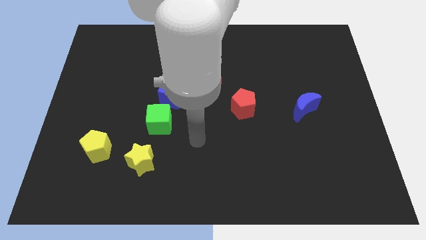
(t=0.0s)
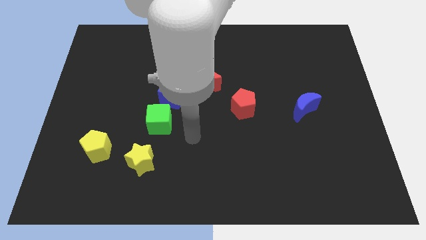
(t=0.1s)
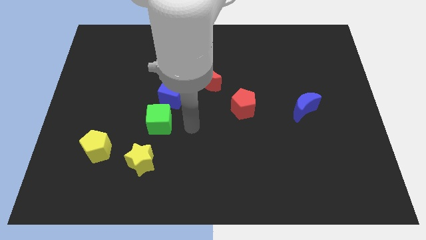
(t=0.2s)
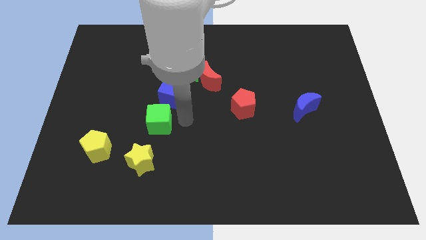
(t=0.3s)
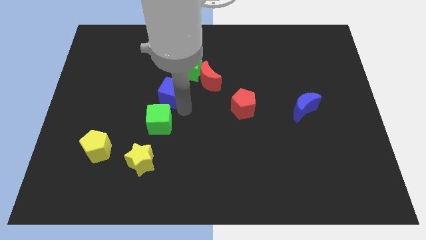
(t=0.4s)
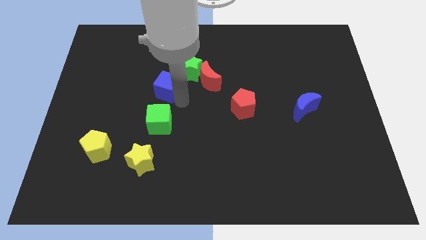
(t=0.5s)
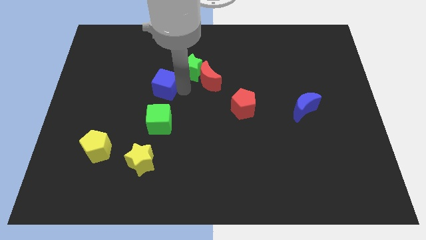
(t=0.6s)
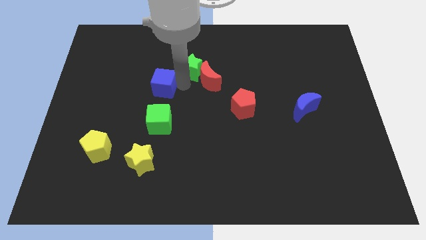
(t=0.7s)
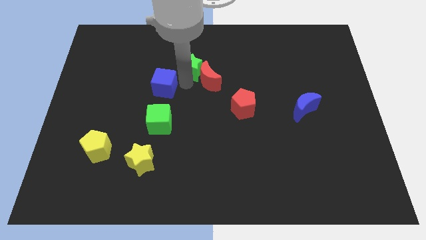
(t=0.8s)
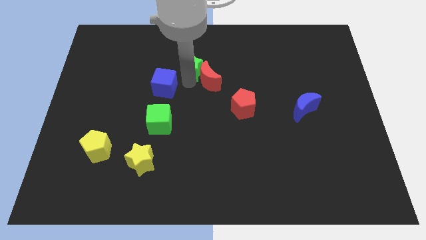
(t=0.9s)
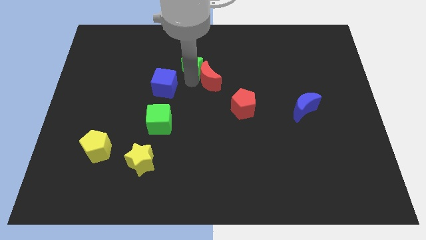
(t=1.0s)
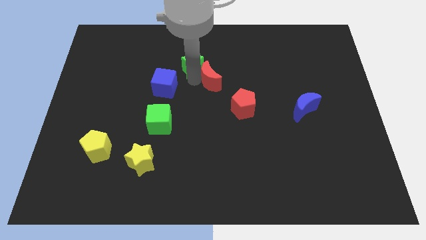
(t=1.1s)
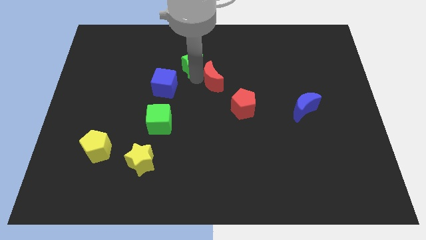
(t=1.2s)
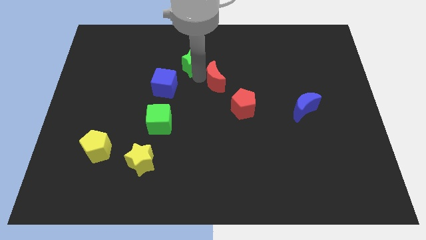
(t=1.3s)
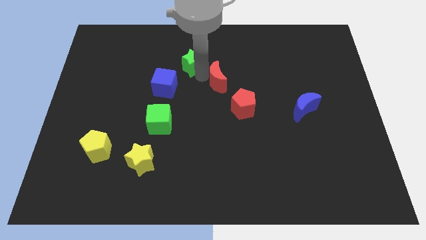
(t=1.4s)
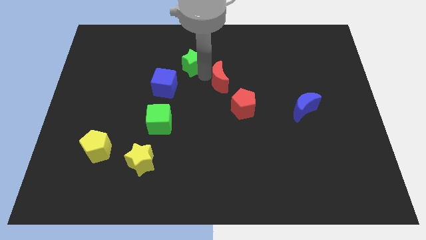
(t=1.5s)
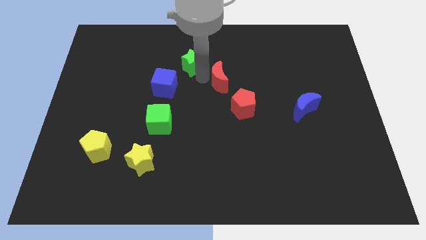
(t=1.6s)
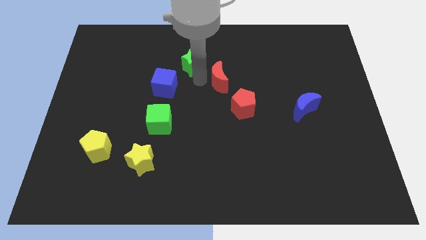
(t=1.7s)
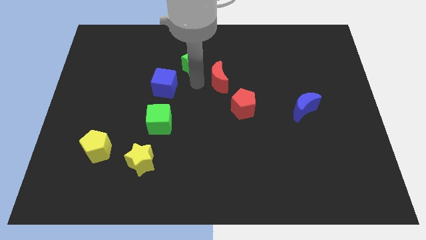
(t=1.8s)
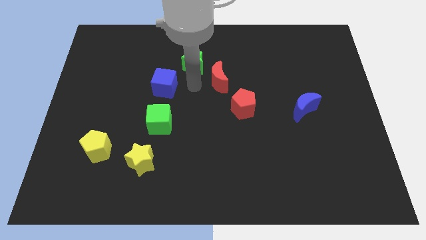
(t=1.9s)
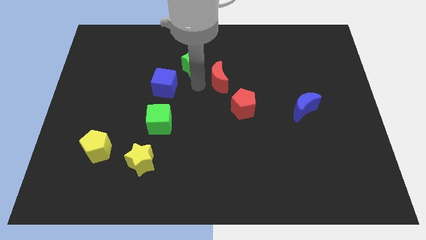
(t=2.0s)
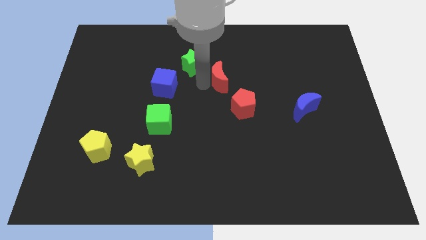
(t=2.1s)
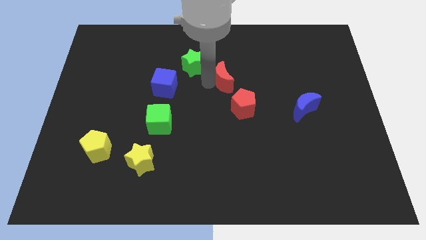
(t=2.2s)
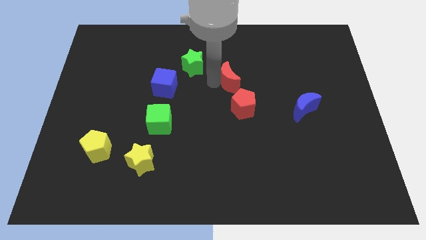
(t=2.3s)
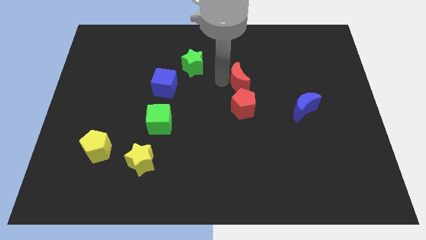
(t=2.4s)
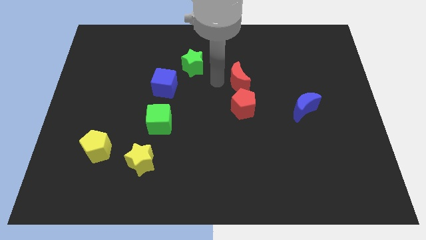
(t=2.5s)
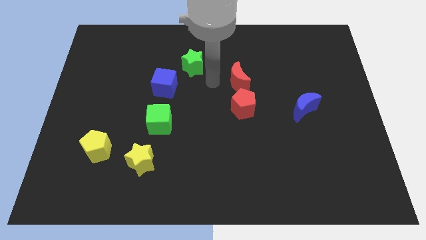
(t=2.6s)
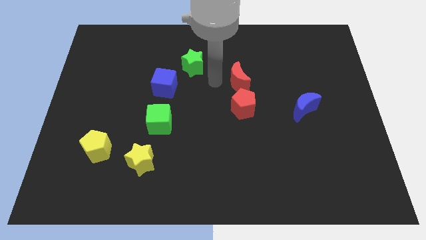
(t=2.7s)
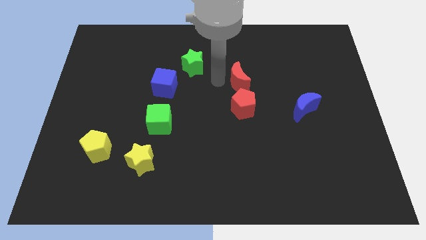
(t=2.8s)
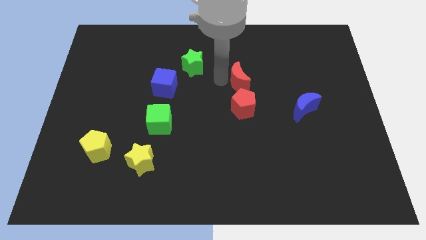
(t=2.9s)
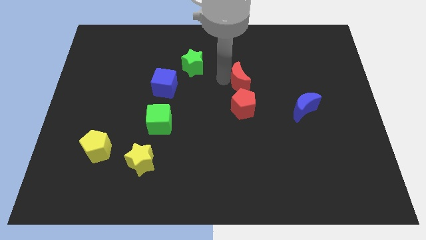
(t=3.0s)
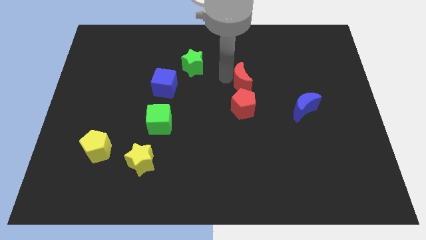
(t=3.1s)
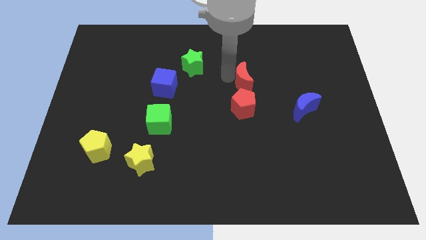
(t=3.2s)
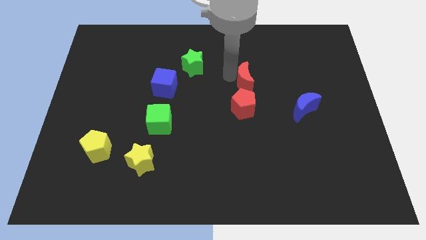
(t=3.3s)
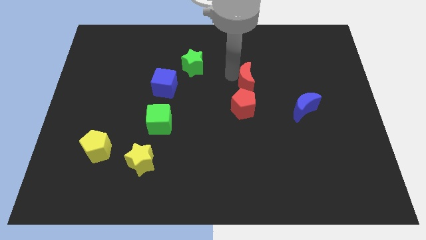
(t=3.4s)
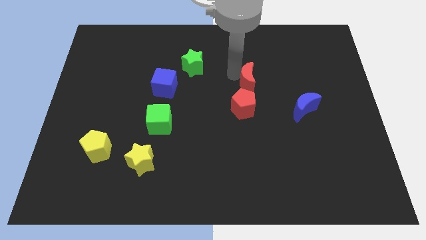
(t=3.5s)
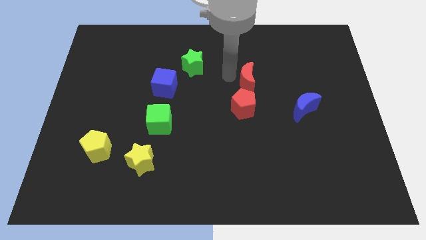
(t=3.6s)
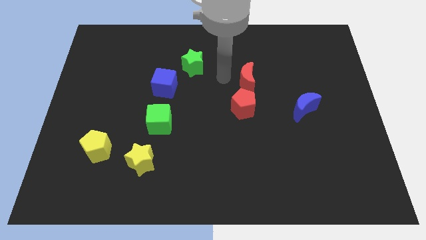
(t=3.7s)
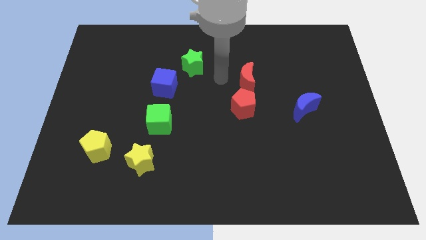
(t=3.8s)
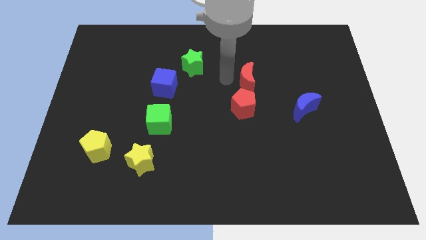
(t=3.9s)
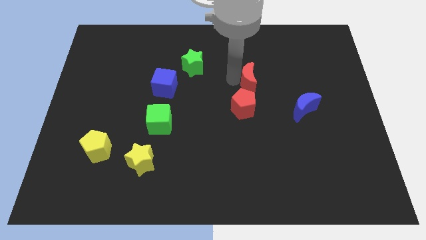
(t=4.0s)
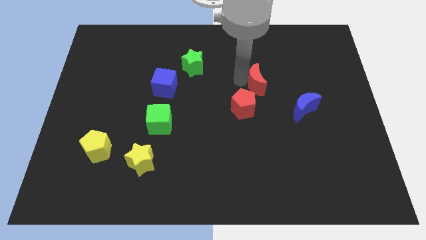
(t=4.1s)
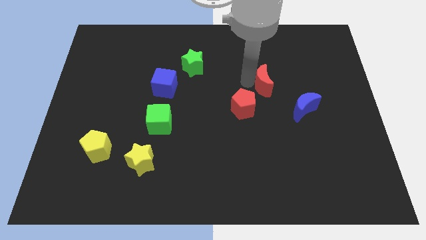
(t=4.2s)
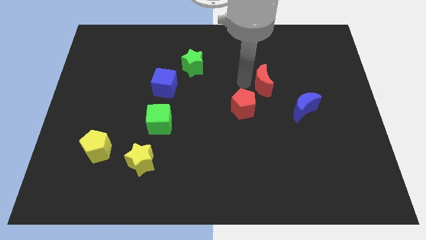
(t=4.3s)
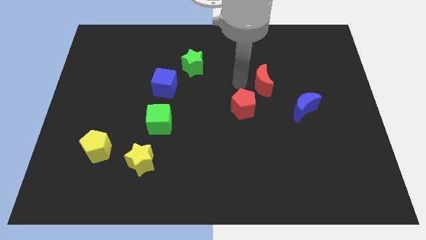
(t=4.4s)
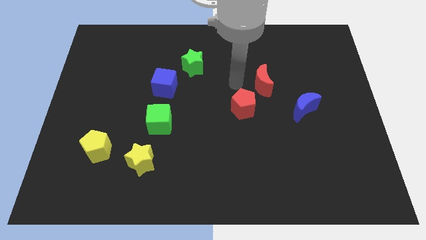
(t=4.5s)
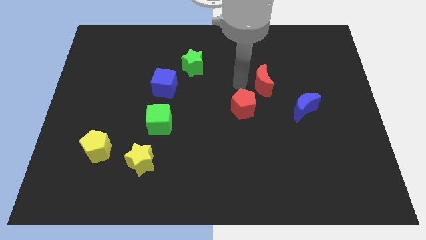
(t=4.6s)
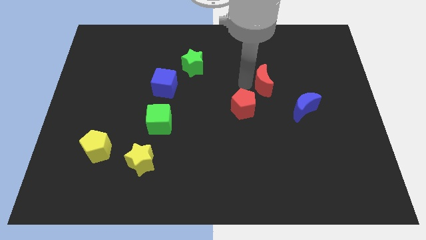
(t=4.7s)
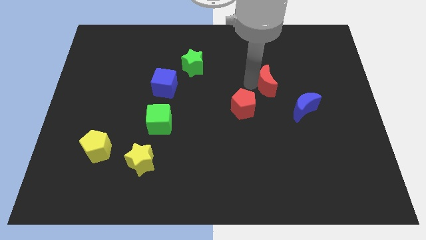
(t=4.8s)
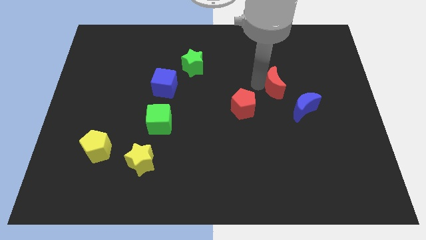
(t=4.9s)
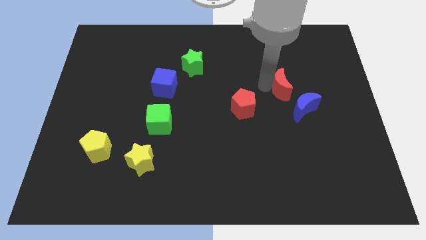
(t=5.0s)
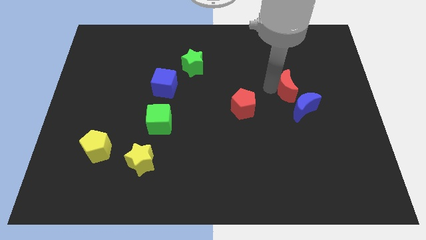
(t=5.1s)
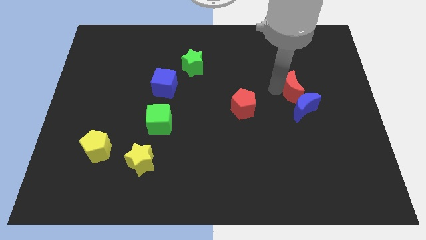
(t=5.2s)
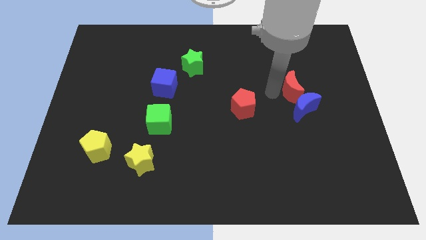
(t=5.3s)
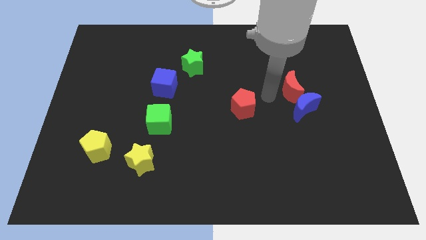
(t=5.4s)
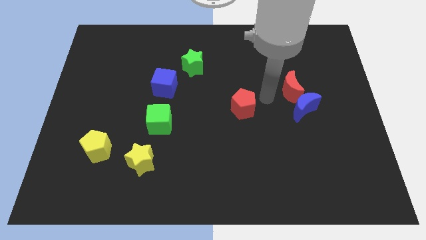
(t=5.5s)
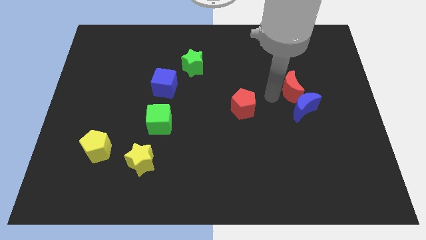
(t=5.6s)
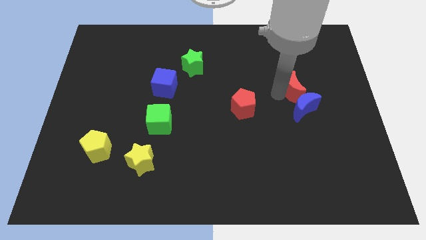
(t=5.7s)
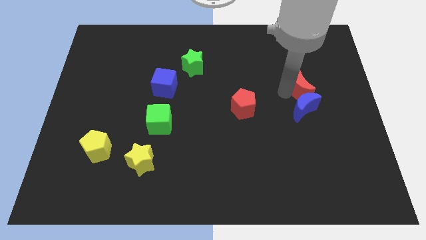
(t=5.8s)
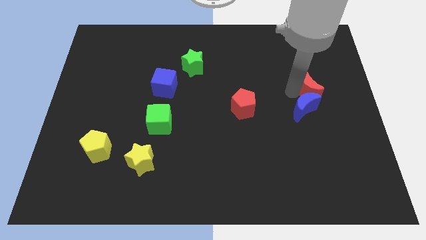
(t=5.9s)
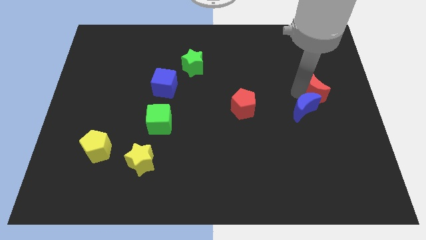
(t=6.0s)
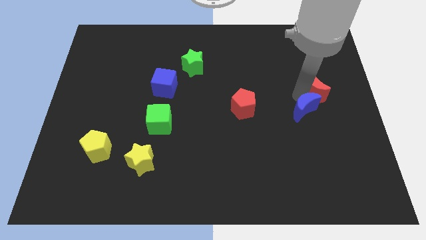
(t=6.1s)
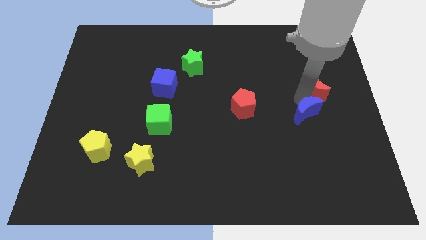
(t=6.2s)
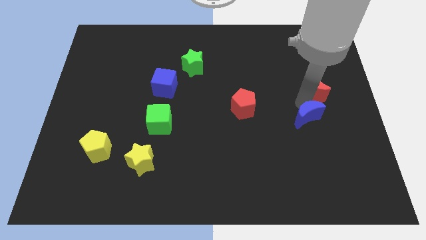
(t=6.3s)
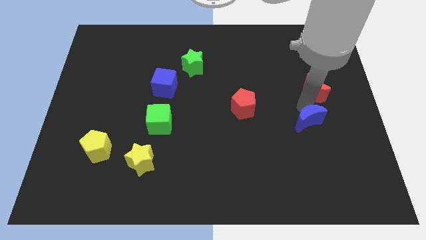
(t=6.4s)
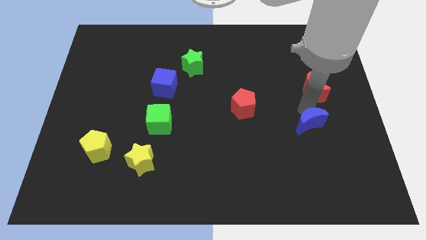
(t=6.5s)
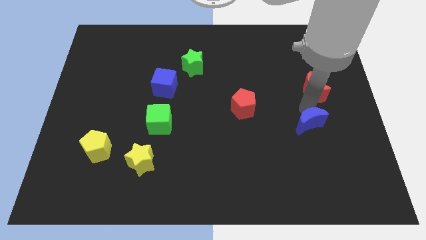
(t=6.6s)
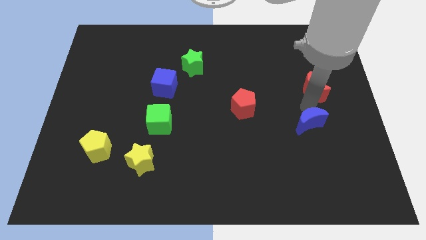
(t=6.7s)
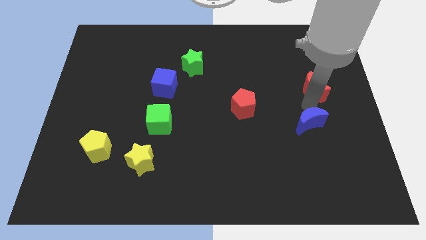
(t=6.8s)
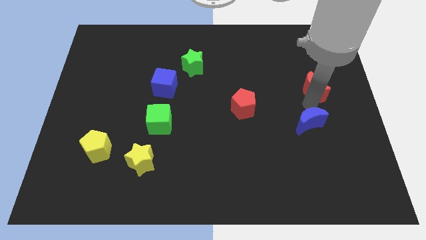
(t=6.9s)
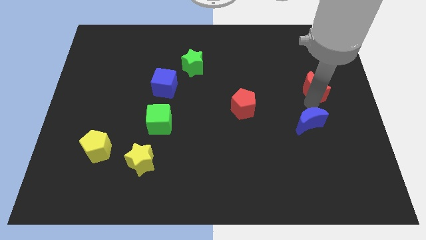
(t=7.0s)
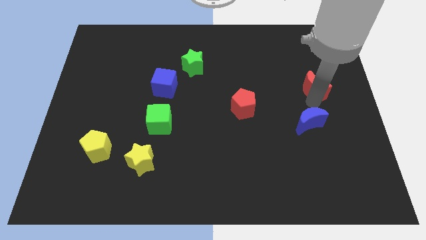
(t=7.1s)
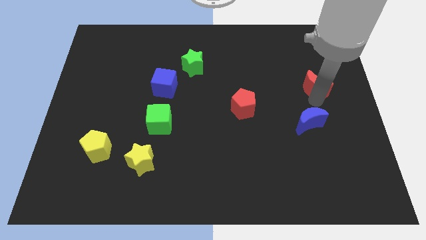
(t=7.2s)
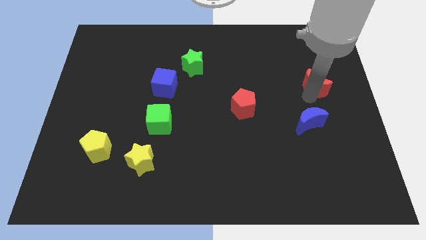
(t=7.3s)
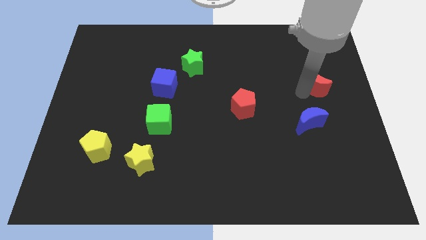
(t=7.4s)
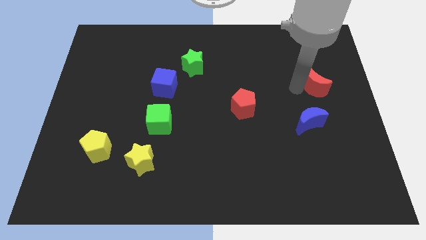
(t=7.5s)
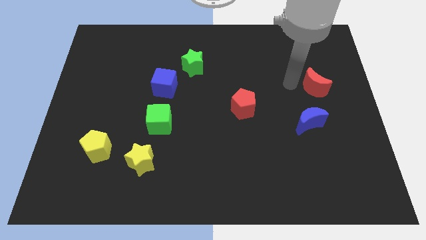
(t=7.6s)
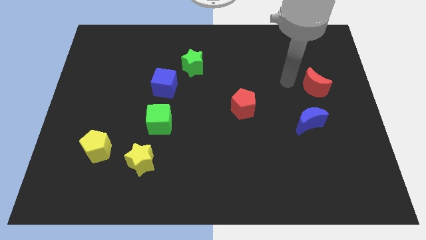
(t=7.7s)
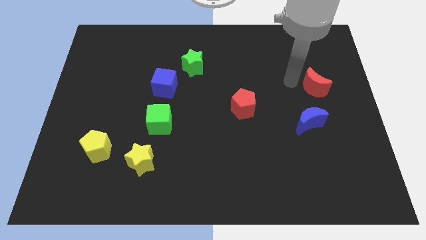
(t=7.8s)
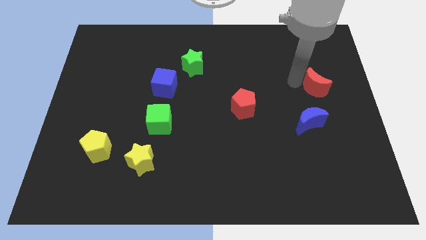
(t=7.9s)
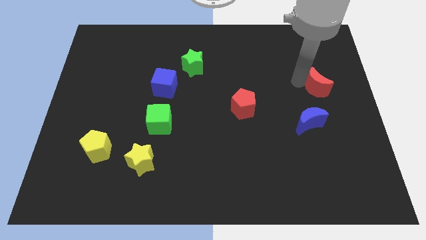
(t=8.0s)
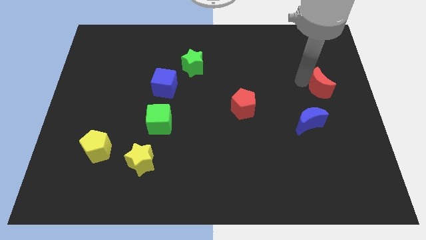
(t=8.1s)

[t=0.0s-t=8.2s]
slide the red moon to the right side
